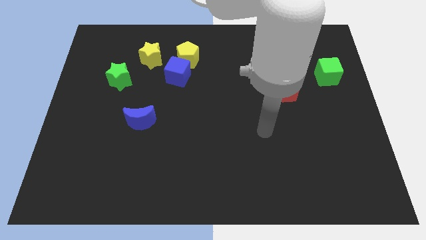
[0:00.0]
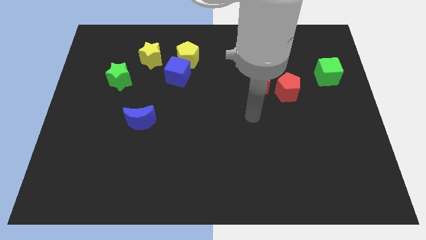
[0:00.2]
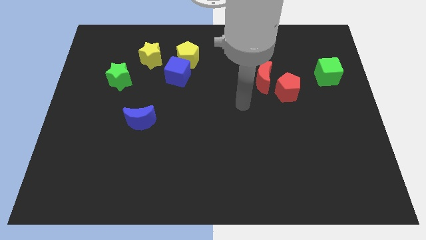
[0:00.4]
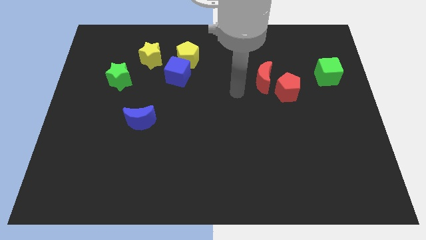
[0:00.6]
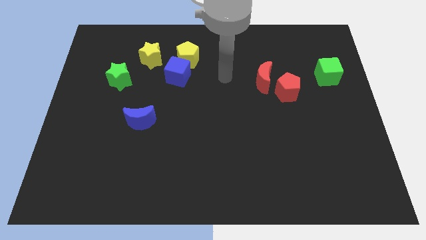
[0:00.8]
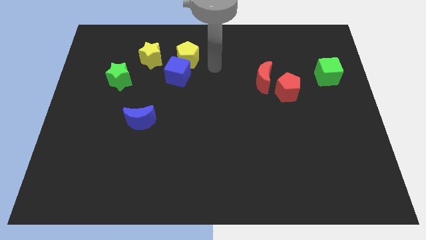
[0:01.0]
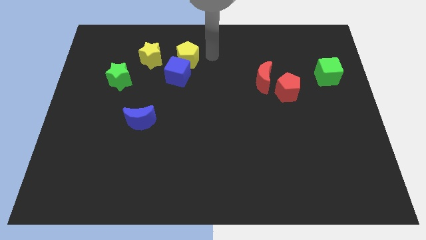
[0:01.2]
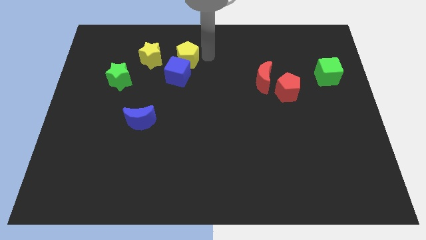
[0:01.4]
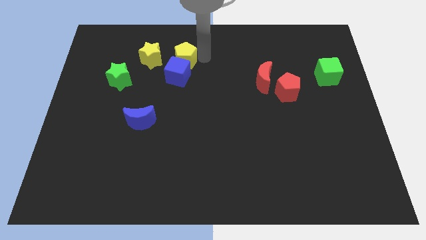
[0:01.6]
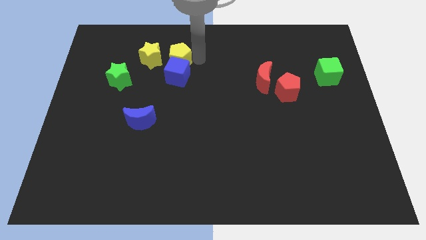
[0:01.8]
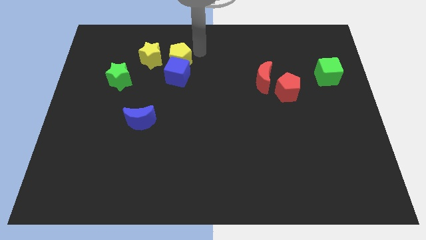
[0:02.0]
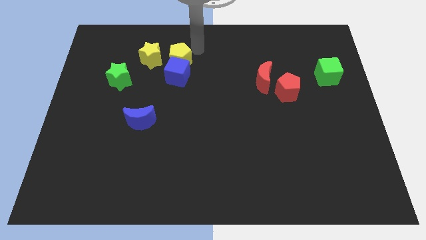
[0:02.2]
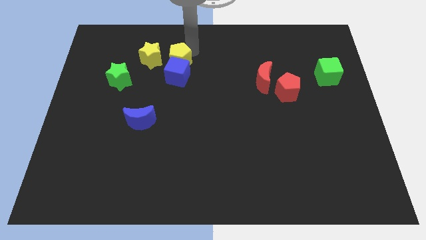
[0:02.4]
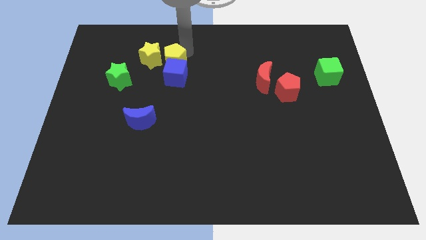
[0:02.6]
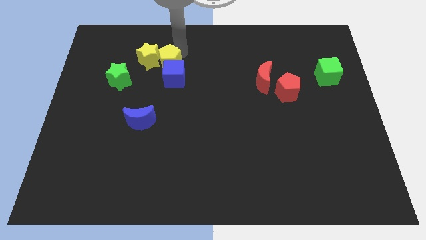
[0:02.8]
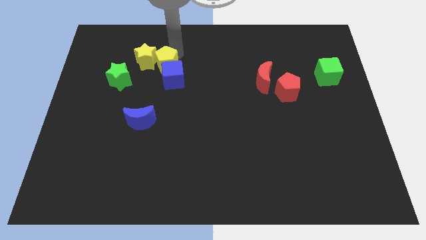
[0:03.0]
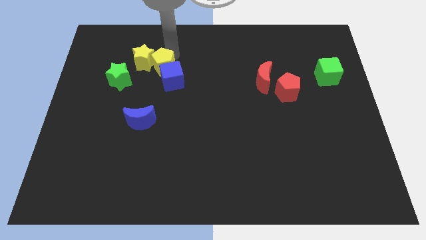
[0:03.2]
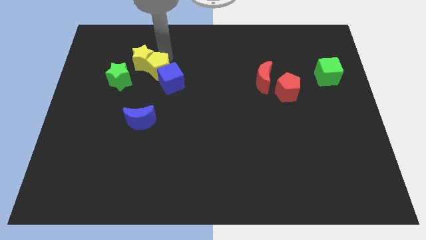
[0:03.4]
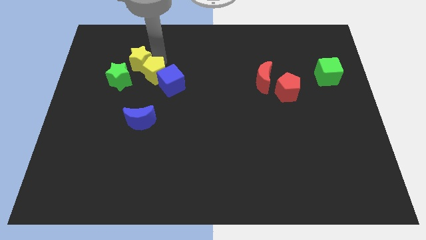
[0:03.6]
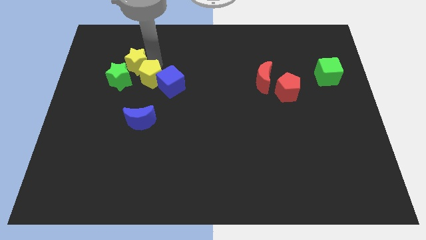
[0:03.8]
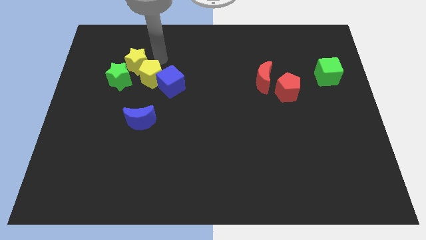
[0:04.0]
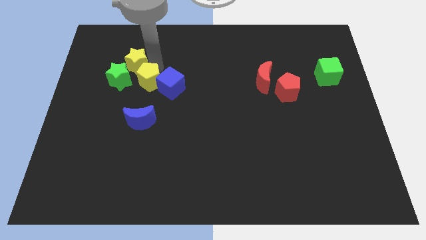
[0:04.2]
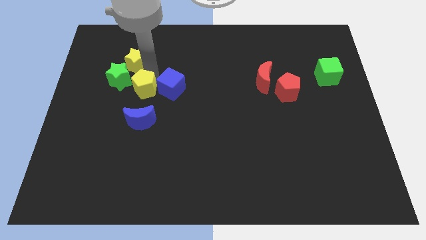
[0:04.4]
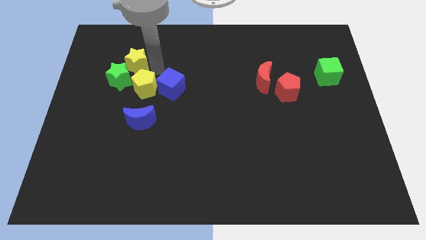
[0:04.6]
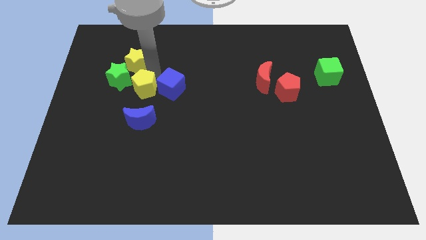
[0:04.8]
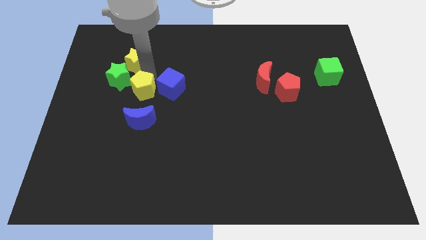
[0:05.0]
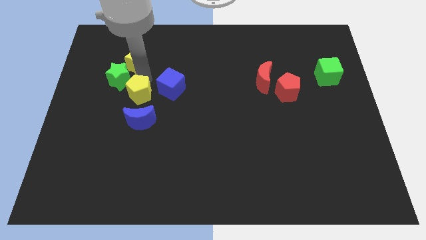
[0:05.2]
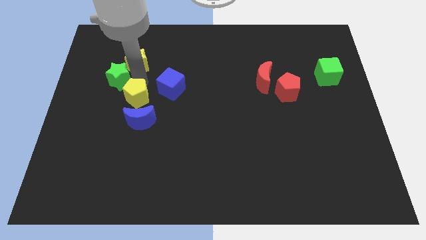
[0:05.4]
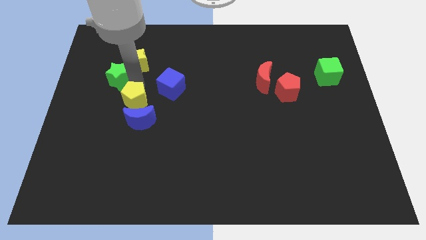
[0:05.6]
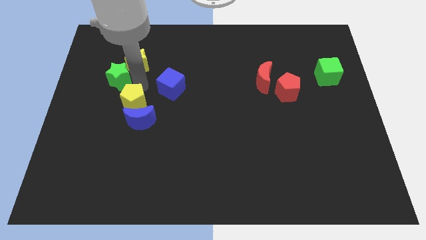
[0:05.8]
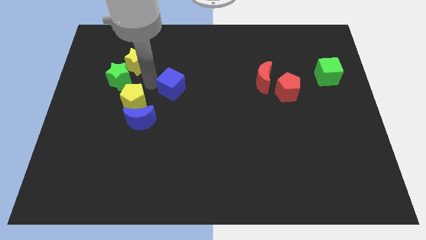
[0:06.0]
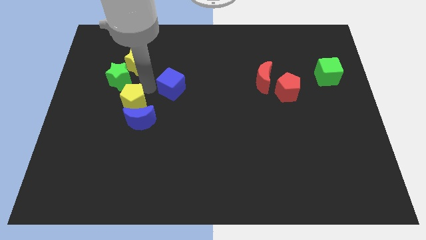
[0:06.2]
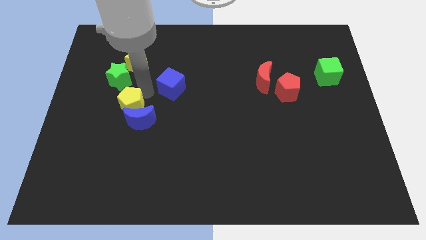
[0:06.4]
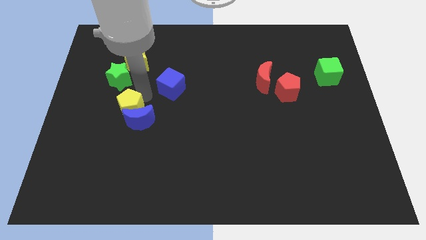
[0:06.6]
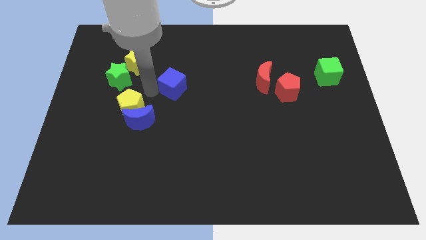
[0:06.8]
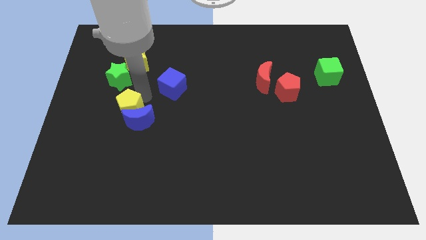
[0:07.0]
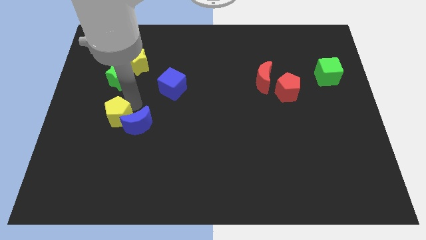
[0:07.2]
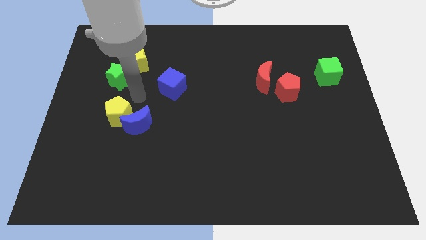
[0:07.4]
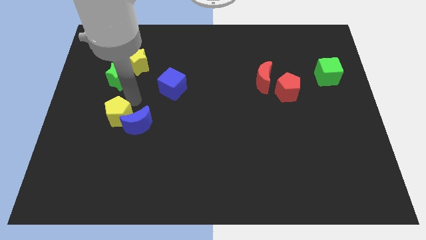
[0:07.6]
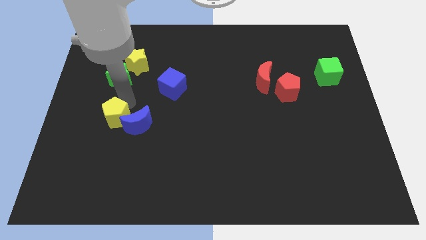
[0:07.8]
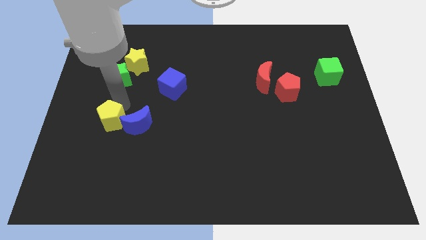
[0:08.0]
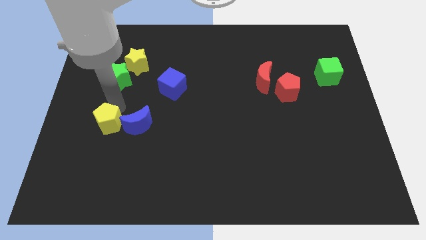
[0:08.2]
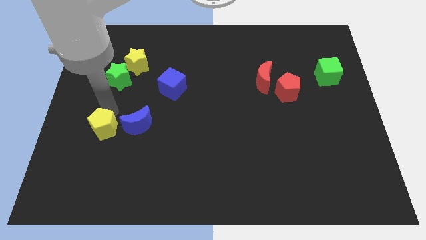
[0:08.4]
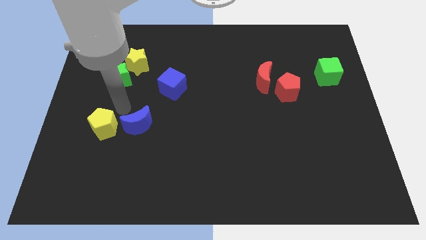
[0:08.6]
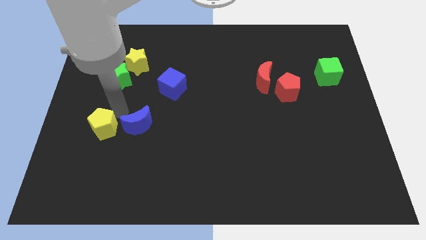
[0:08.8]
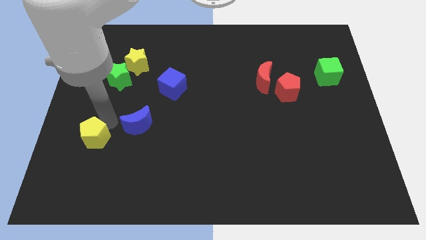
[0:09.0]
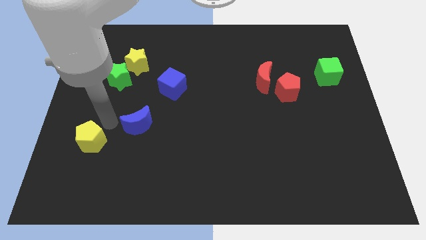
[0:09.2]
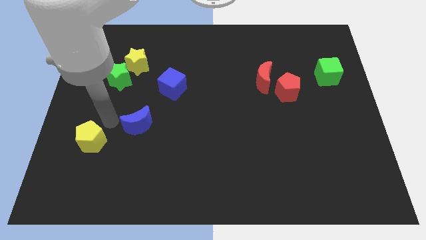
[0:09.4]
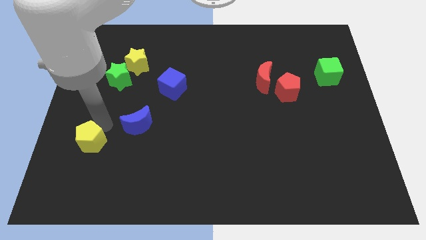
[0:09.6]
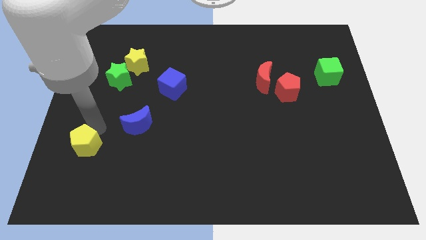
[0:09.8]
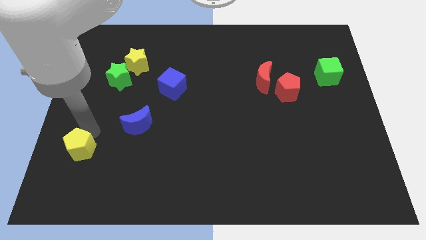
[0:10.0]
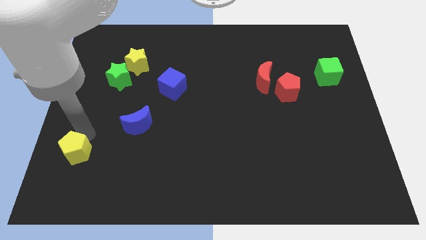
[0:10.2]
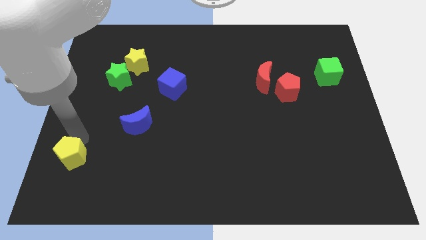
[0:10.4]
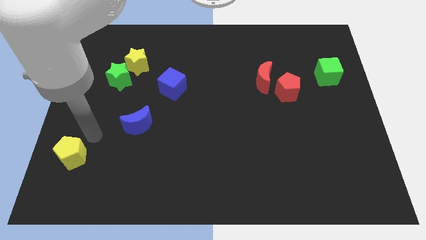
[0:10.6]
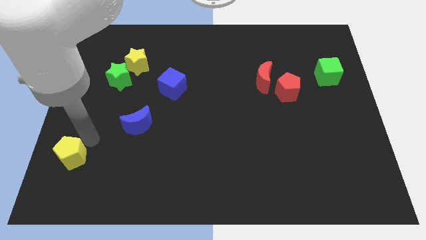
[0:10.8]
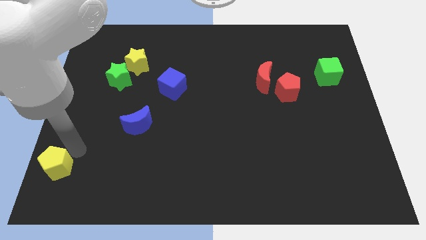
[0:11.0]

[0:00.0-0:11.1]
push the yellow pentagon to the bottom left of the board

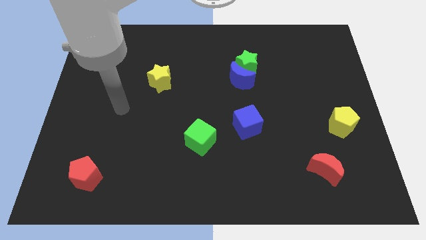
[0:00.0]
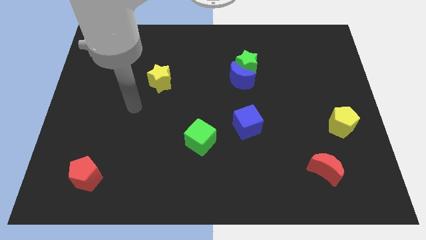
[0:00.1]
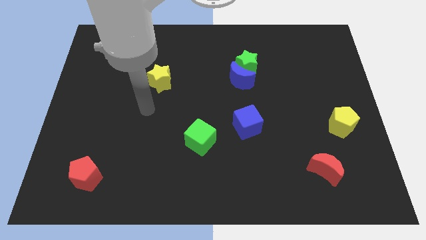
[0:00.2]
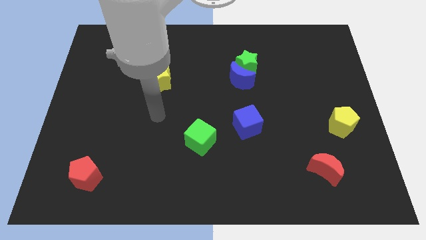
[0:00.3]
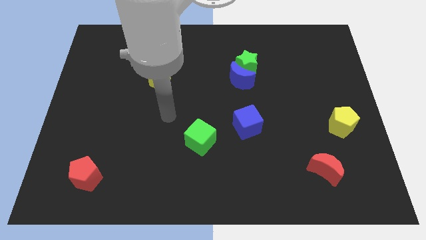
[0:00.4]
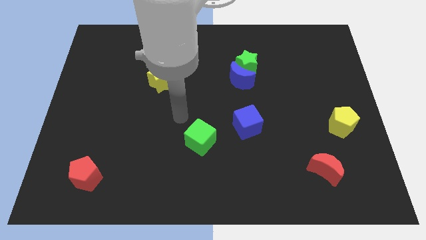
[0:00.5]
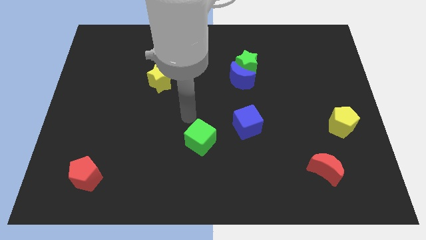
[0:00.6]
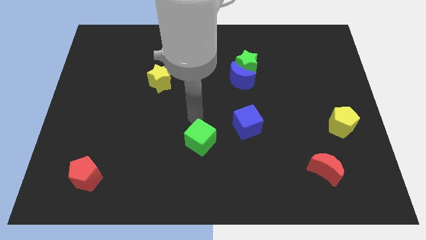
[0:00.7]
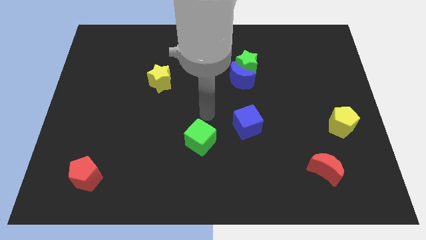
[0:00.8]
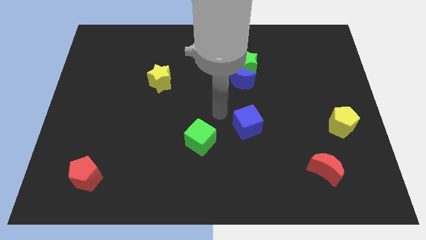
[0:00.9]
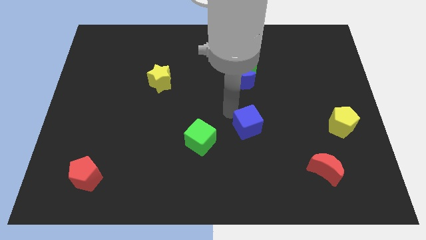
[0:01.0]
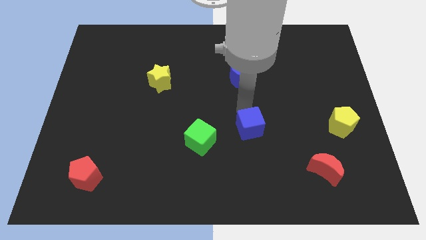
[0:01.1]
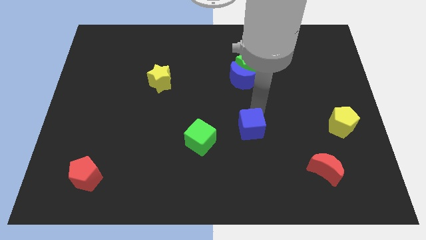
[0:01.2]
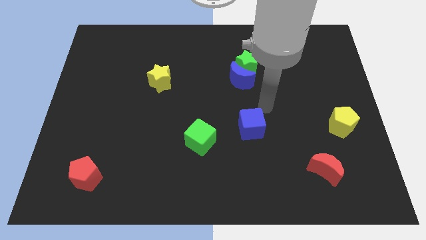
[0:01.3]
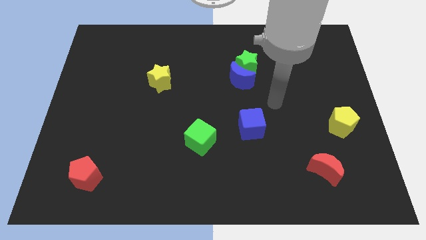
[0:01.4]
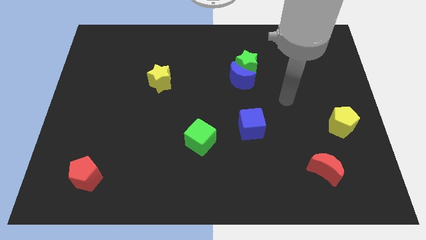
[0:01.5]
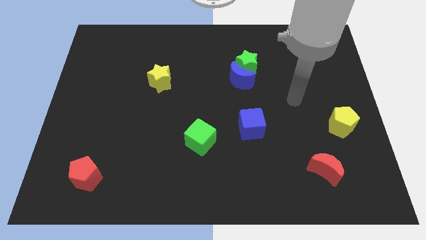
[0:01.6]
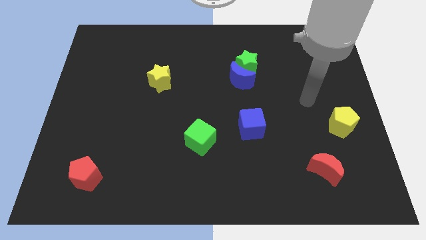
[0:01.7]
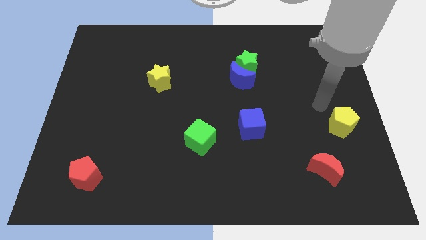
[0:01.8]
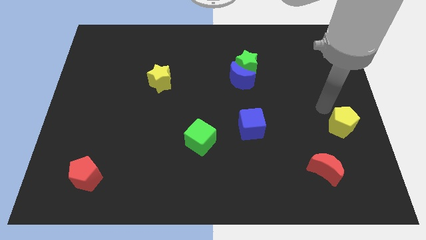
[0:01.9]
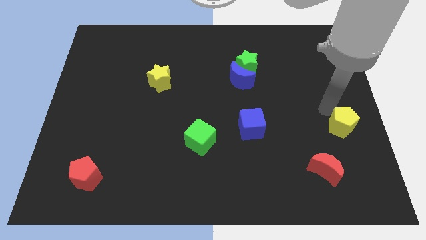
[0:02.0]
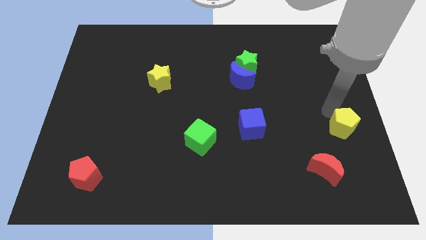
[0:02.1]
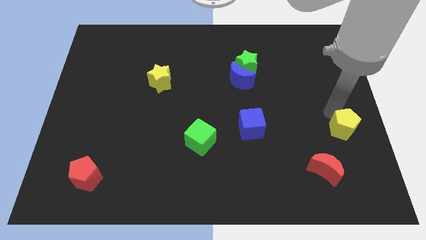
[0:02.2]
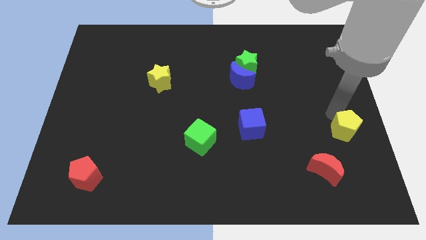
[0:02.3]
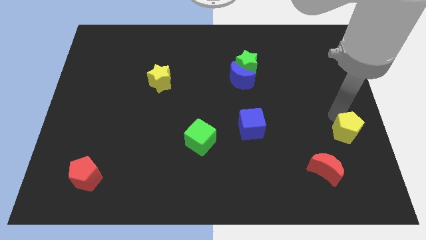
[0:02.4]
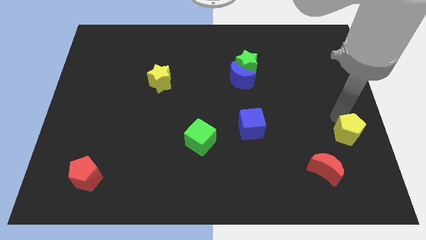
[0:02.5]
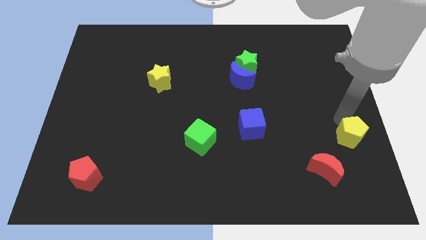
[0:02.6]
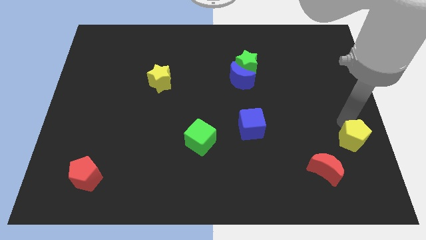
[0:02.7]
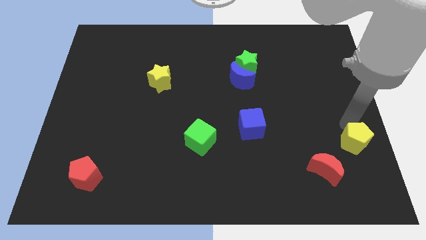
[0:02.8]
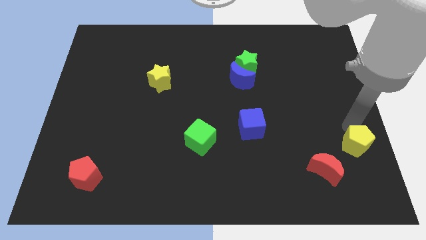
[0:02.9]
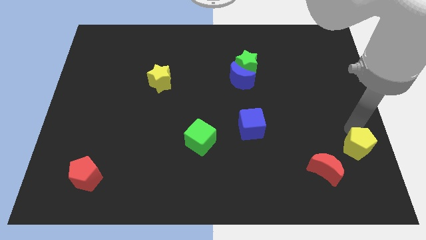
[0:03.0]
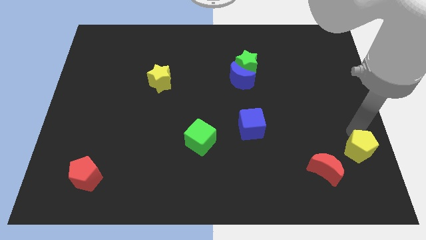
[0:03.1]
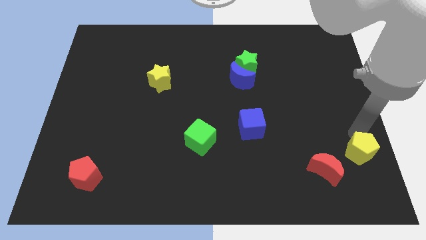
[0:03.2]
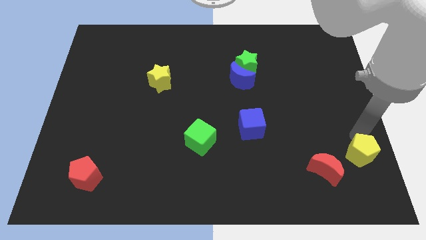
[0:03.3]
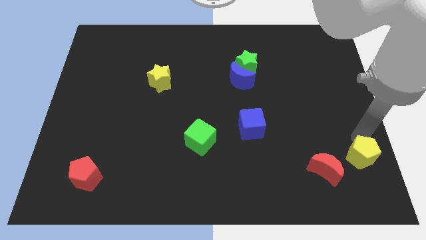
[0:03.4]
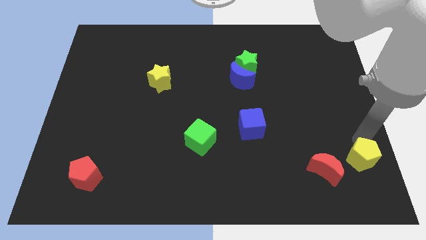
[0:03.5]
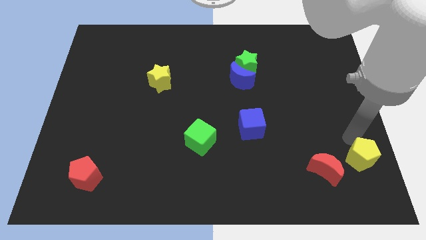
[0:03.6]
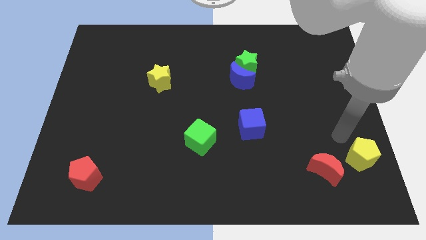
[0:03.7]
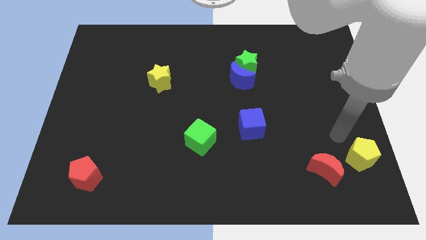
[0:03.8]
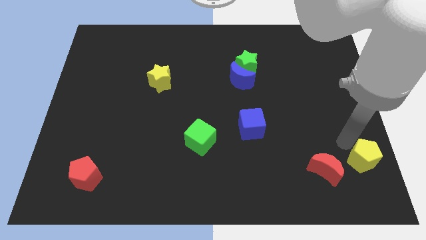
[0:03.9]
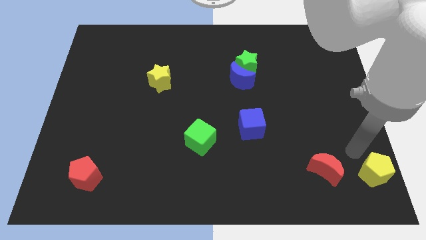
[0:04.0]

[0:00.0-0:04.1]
slide the yellow pentagon to the bottom right
